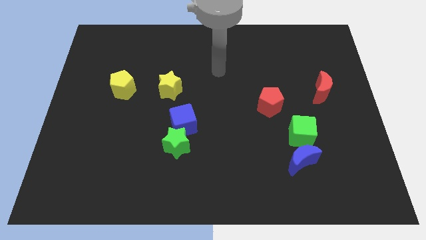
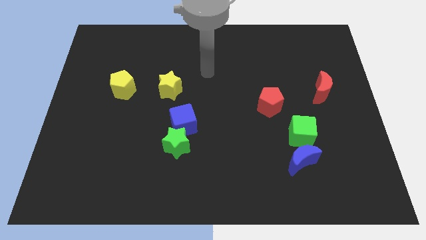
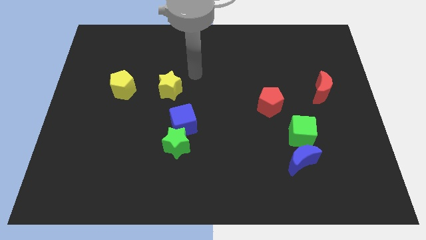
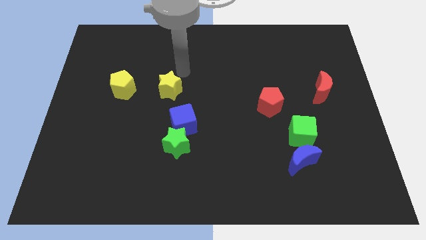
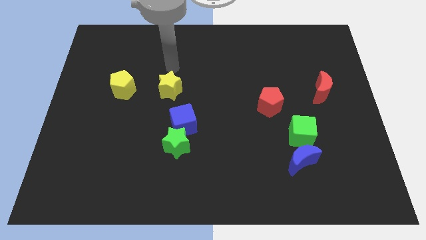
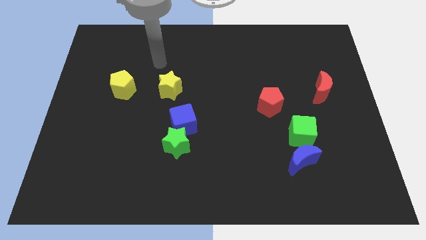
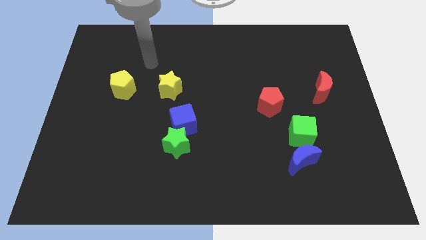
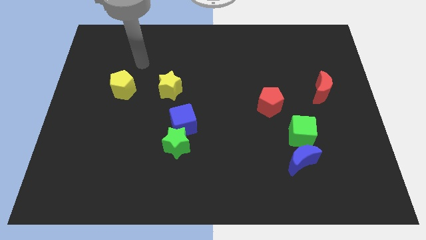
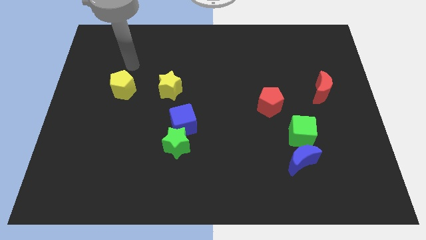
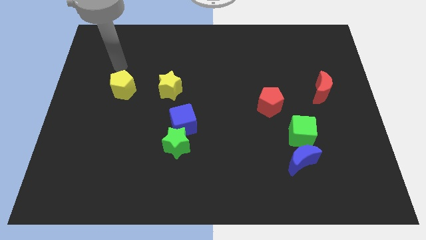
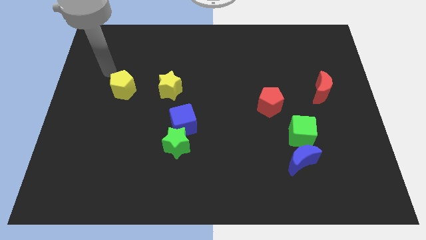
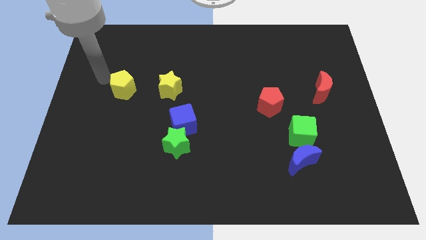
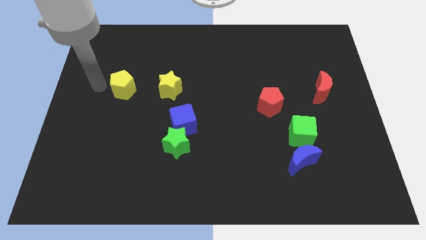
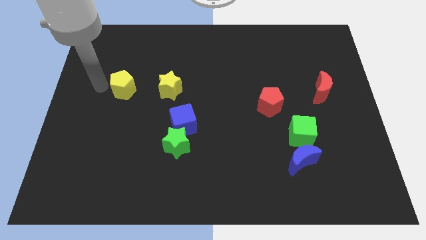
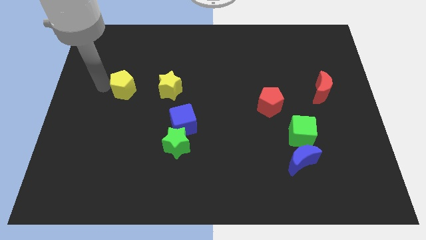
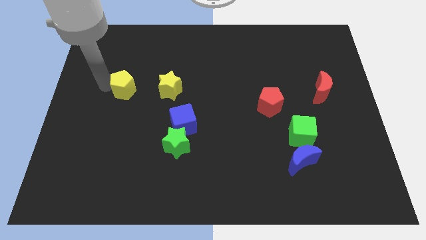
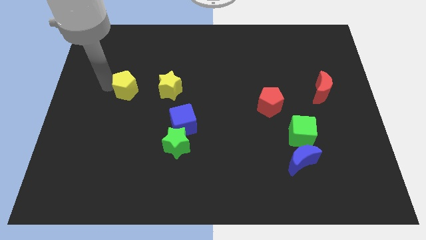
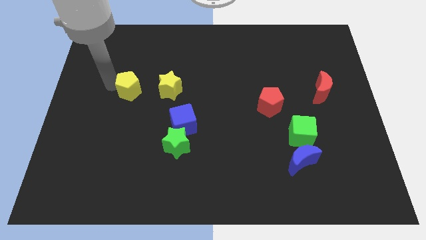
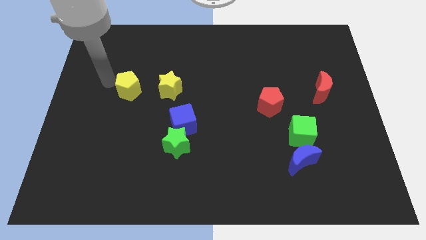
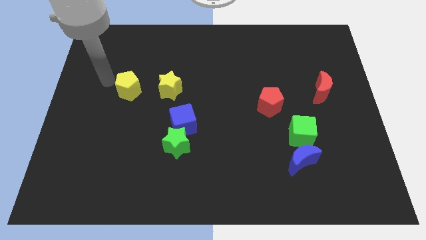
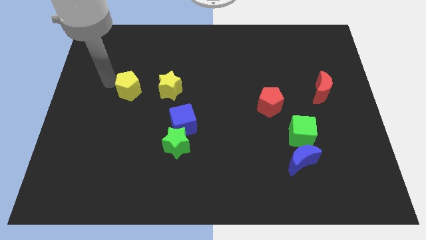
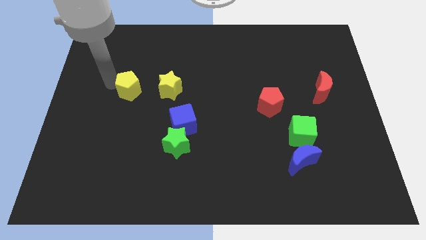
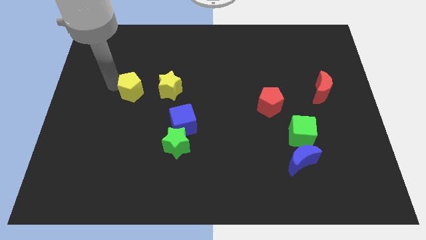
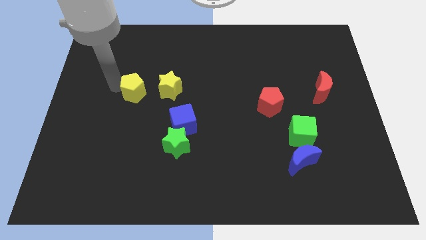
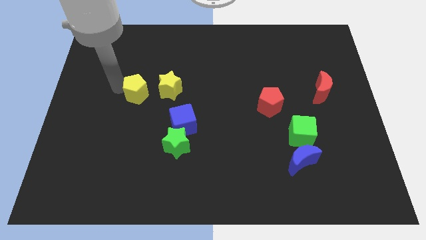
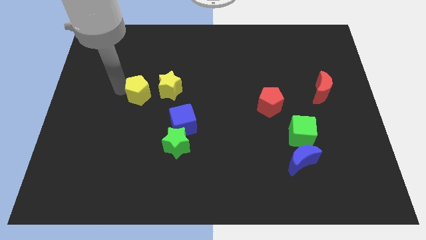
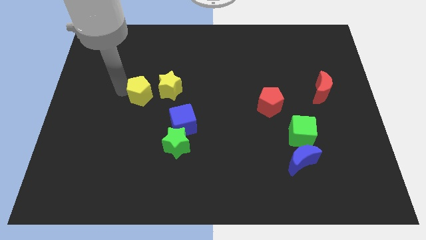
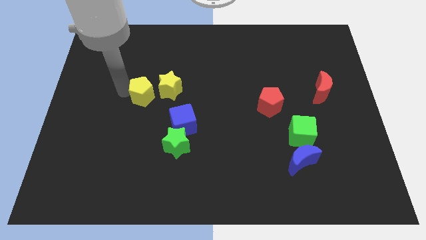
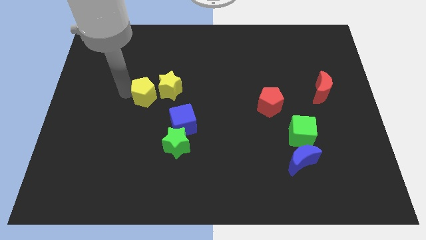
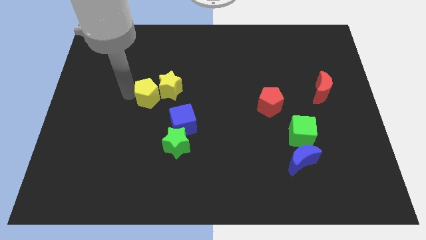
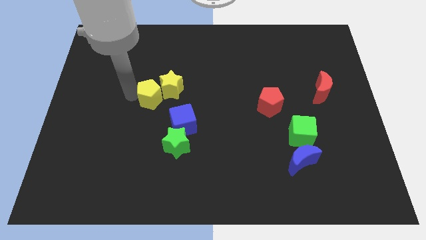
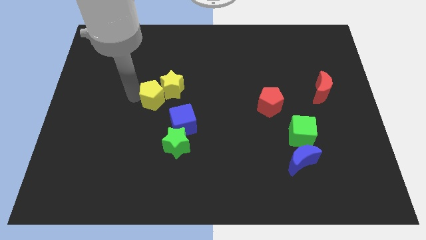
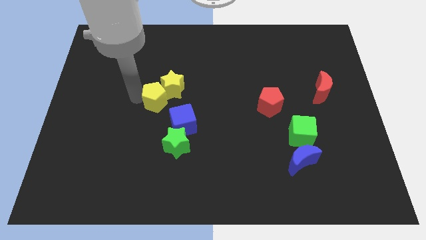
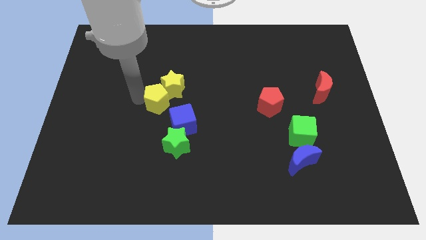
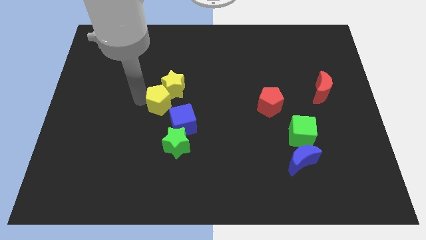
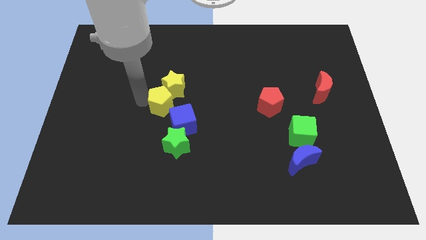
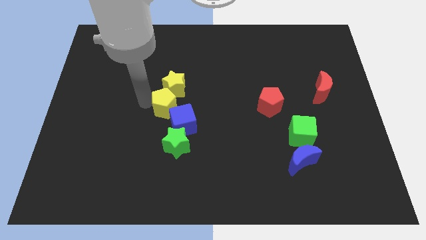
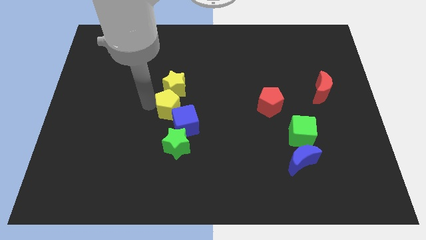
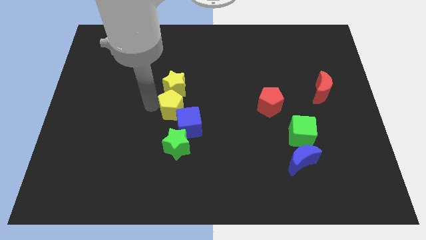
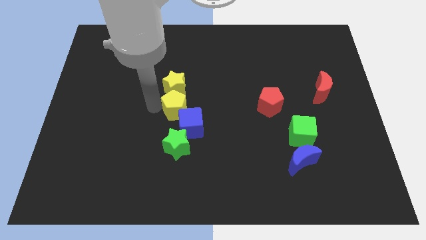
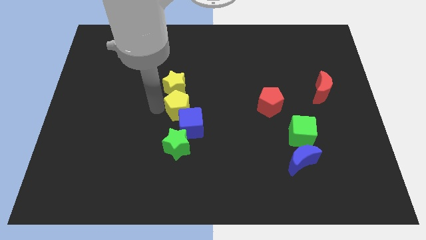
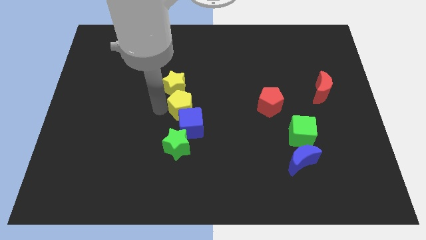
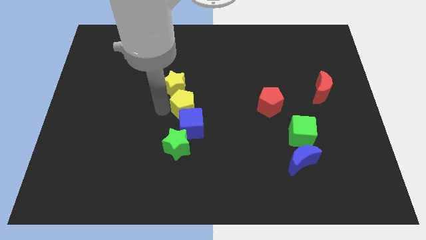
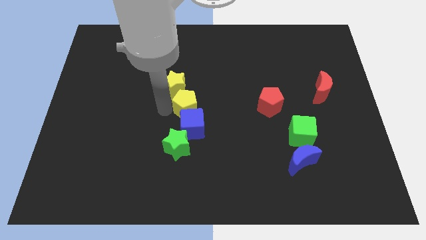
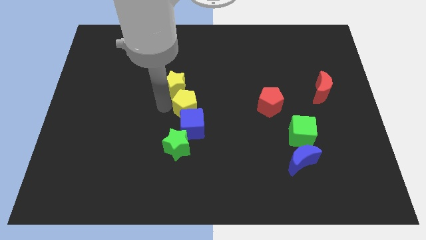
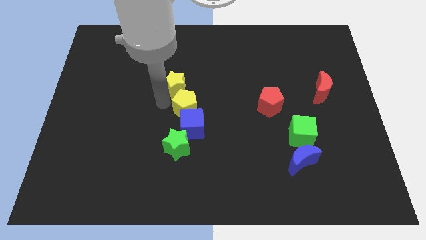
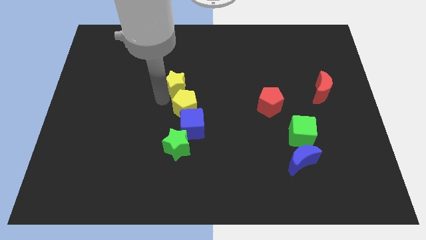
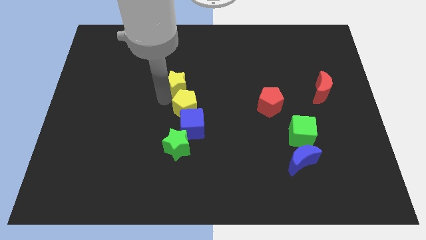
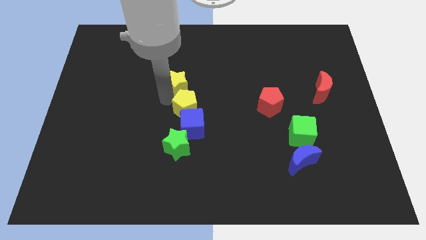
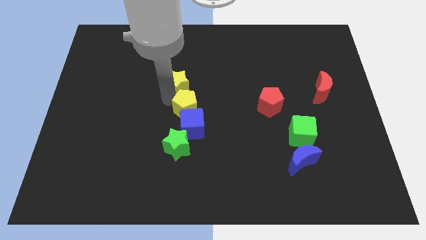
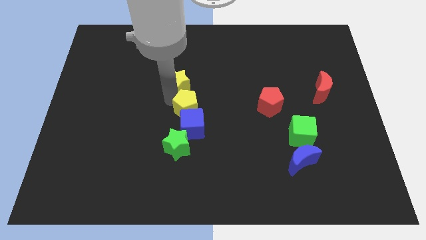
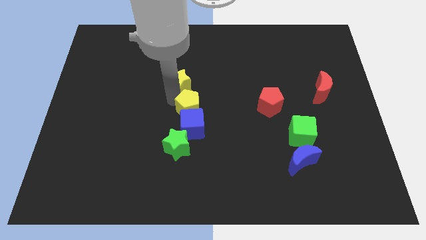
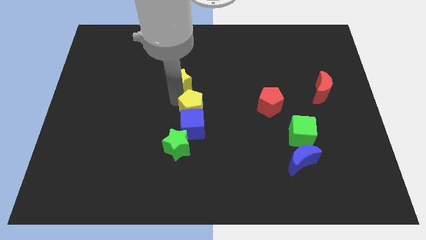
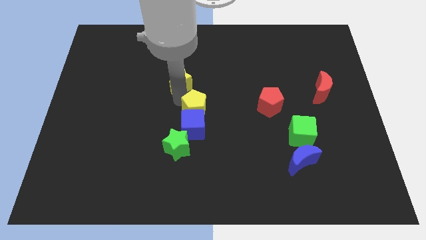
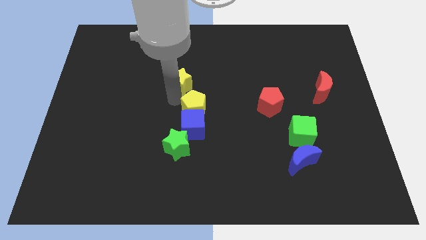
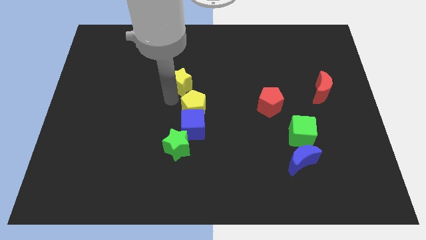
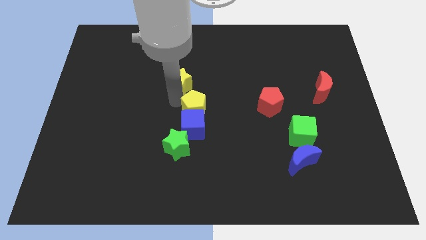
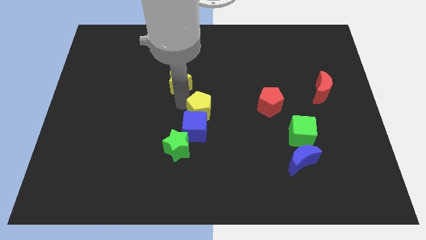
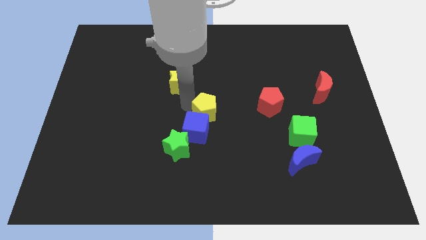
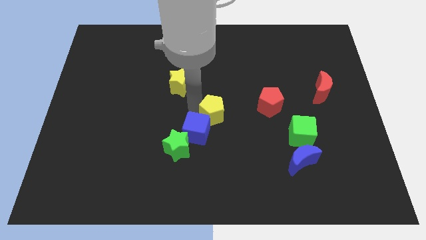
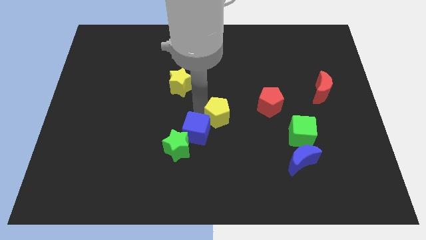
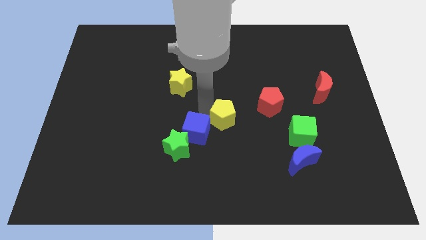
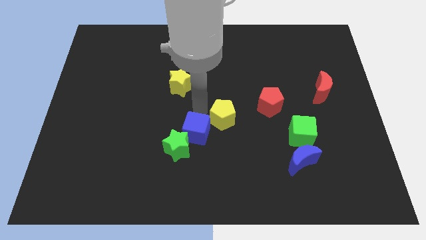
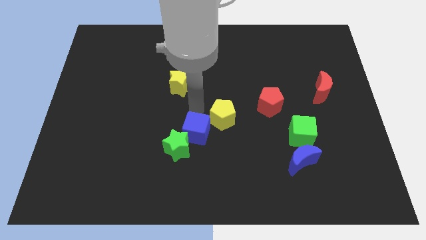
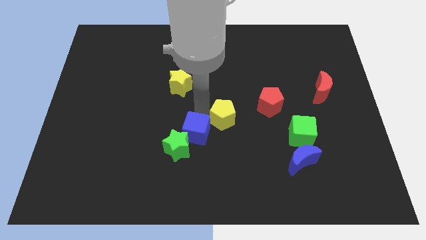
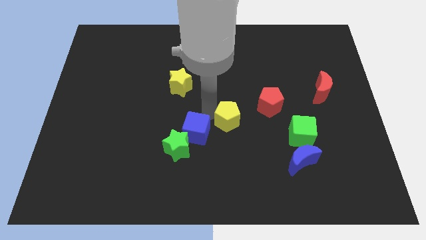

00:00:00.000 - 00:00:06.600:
push the yellow pentagon to the bottom left of the red pentagon
